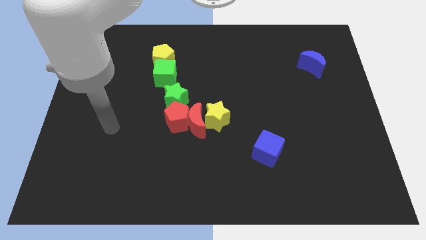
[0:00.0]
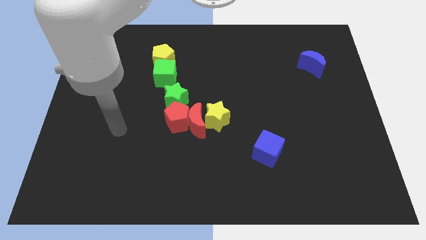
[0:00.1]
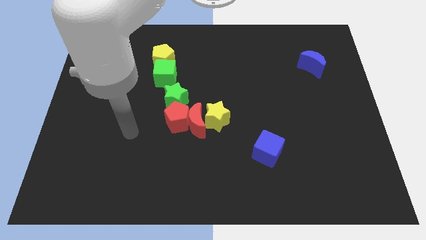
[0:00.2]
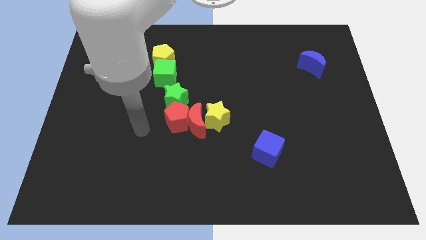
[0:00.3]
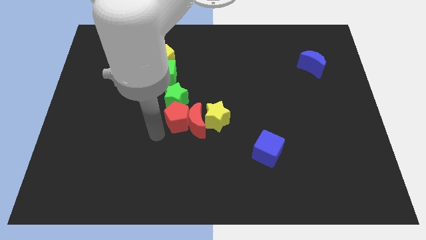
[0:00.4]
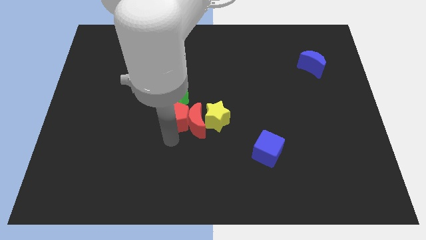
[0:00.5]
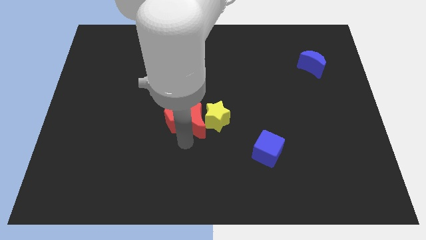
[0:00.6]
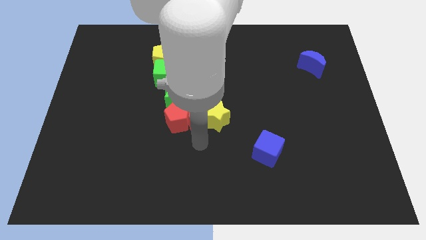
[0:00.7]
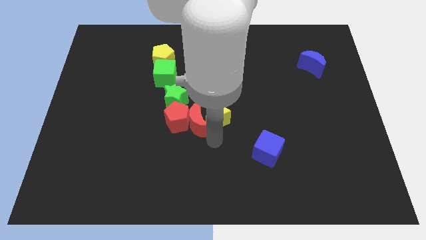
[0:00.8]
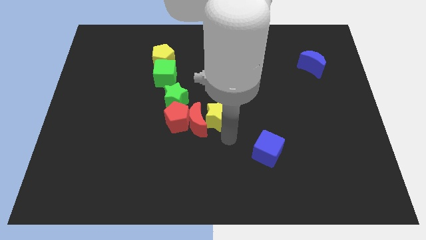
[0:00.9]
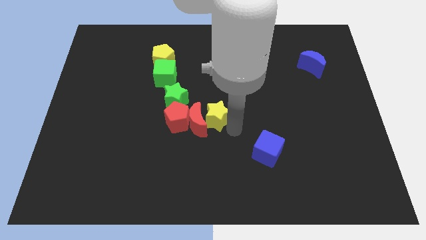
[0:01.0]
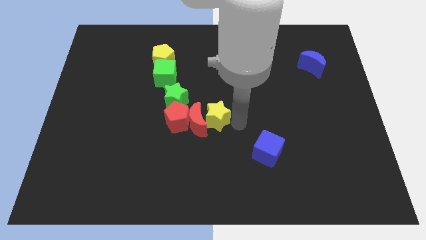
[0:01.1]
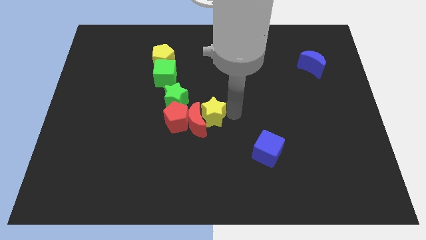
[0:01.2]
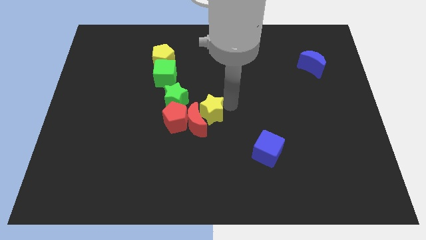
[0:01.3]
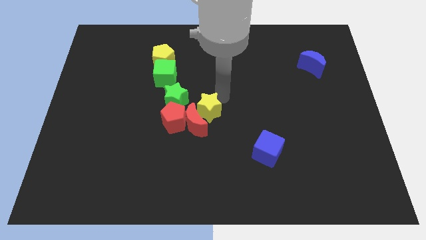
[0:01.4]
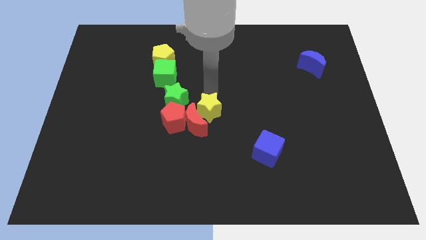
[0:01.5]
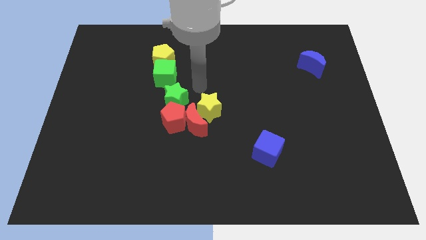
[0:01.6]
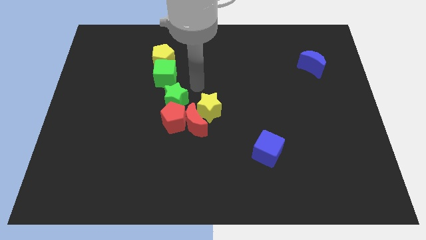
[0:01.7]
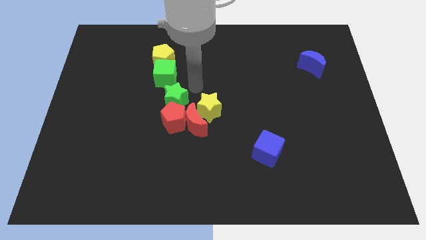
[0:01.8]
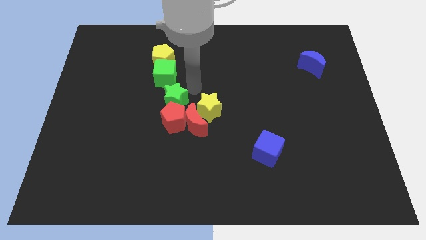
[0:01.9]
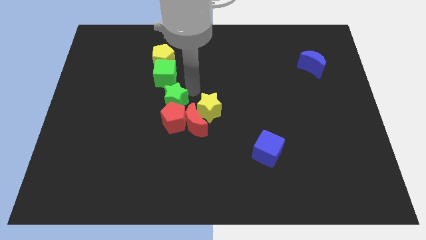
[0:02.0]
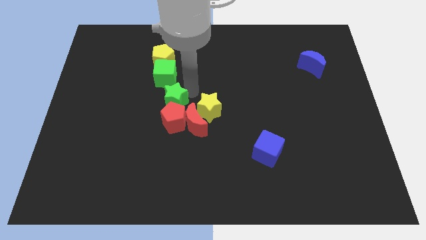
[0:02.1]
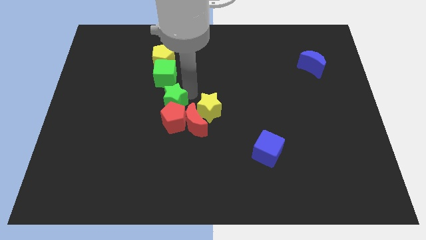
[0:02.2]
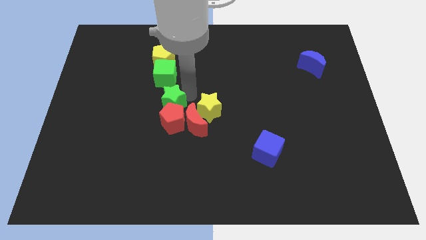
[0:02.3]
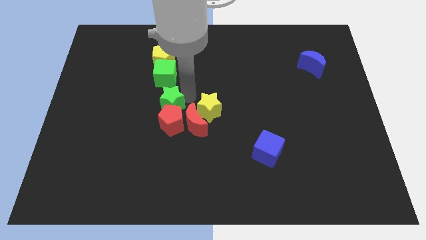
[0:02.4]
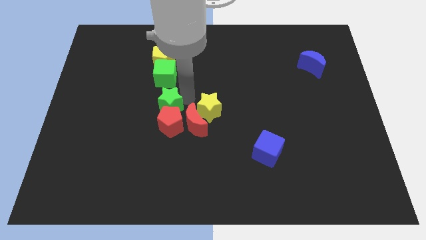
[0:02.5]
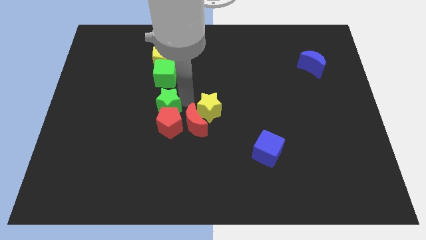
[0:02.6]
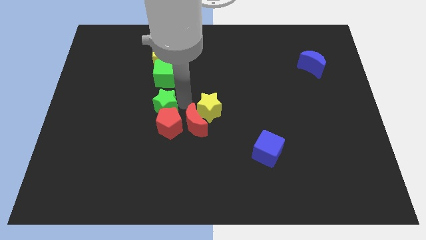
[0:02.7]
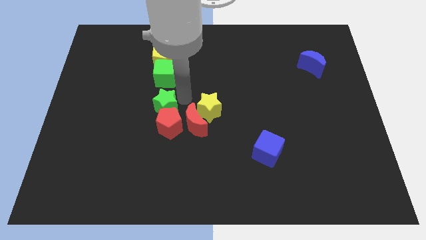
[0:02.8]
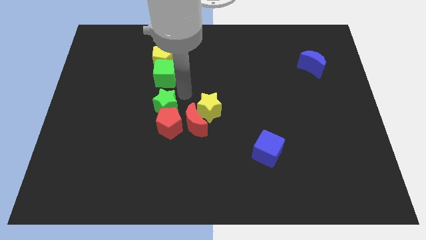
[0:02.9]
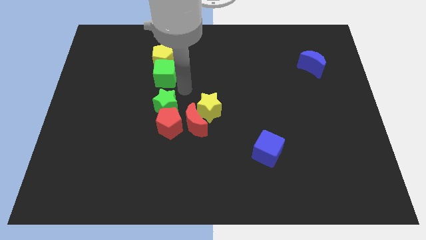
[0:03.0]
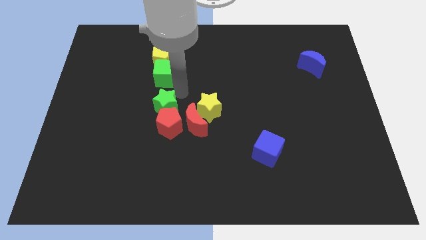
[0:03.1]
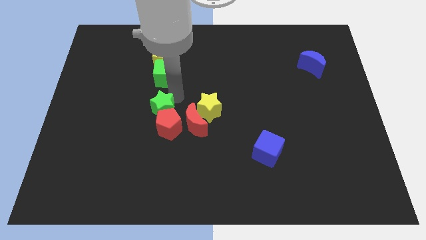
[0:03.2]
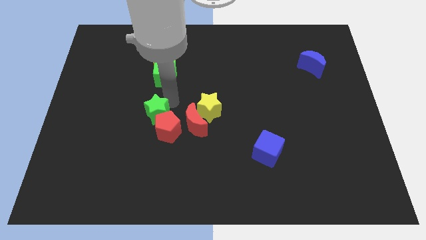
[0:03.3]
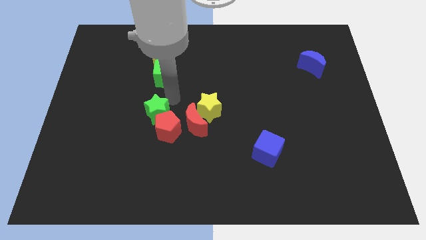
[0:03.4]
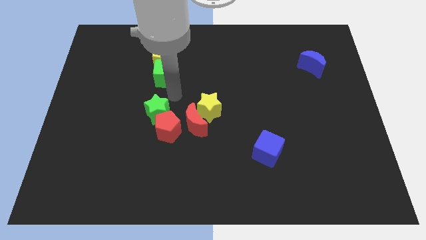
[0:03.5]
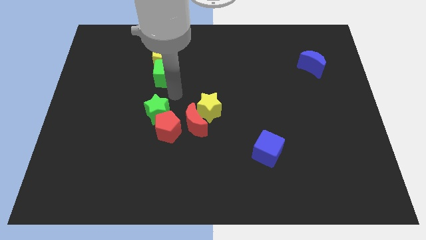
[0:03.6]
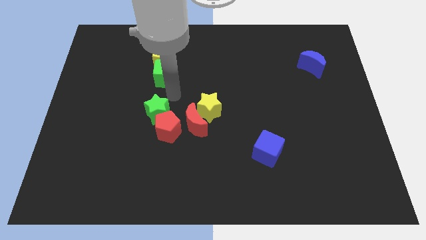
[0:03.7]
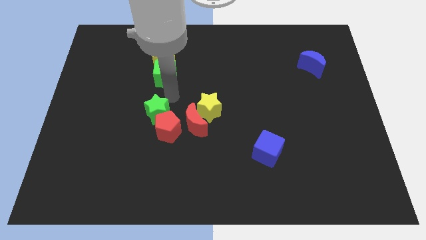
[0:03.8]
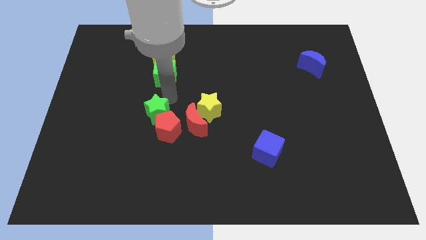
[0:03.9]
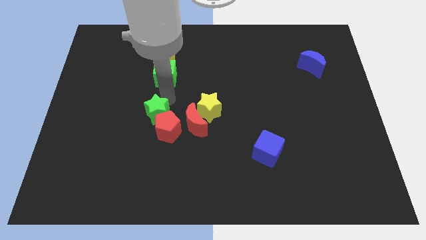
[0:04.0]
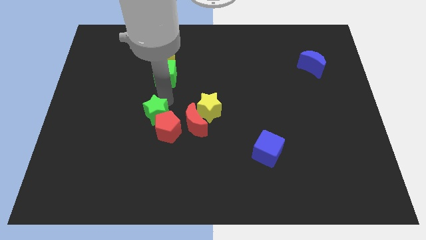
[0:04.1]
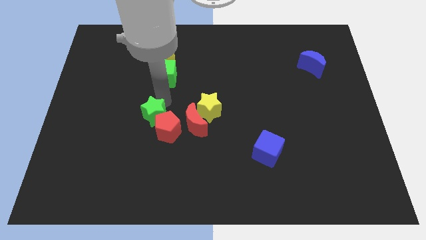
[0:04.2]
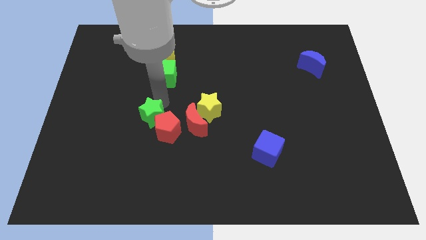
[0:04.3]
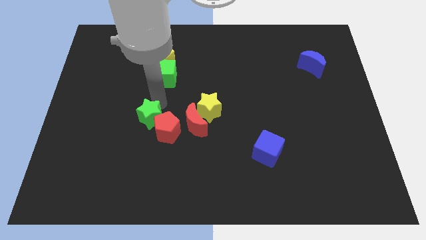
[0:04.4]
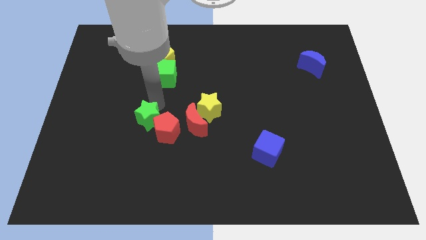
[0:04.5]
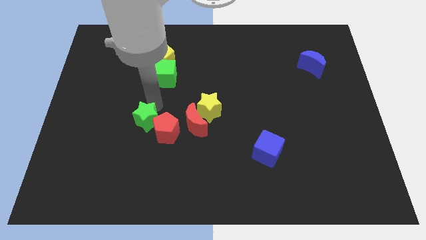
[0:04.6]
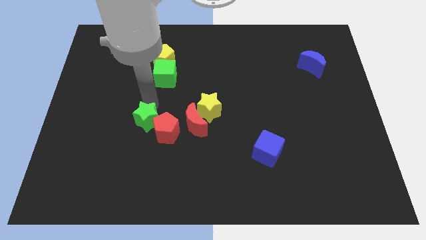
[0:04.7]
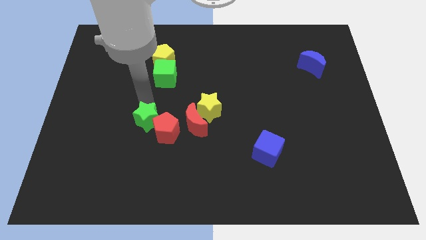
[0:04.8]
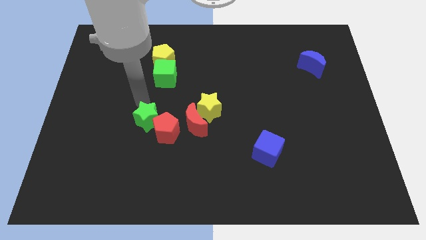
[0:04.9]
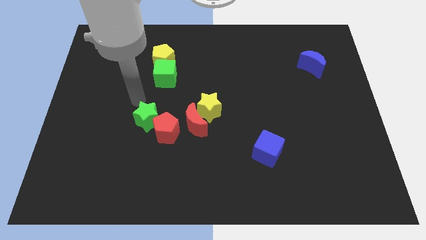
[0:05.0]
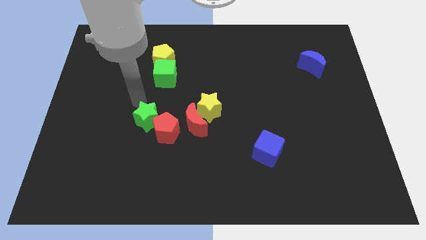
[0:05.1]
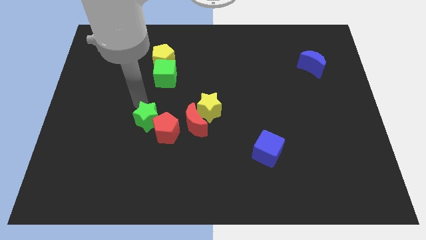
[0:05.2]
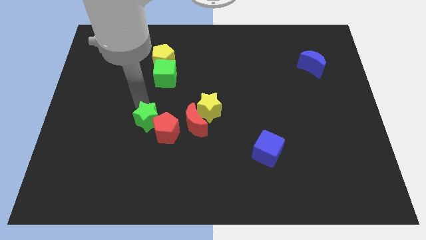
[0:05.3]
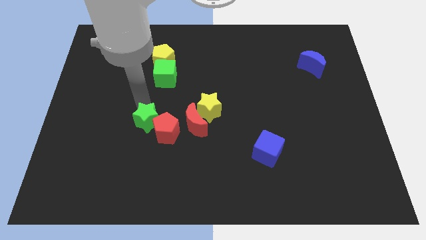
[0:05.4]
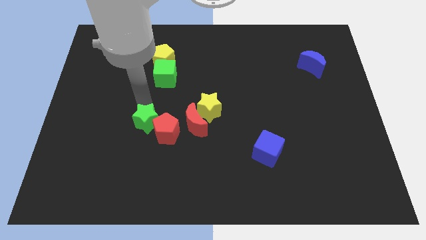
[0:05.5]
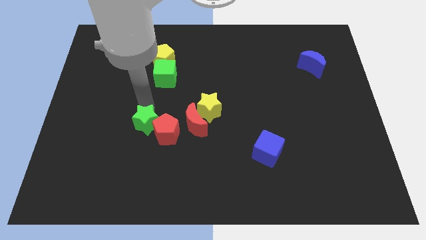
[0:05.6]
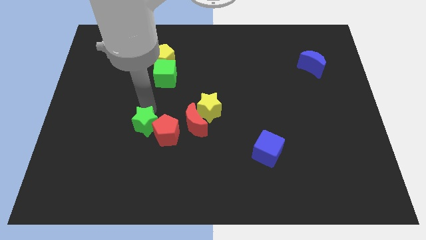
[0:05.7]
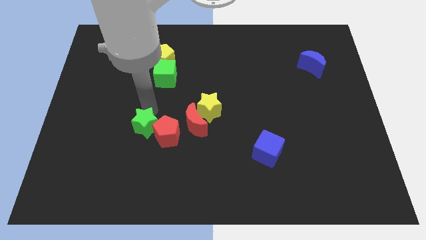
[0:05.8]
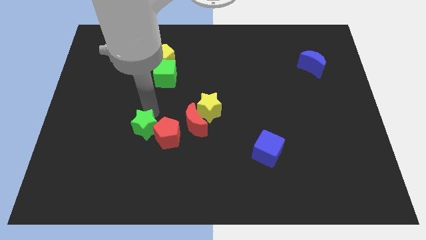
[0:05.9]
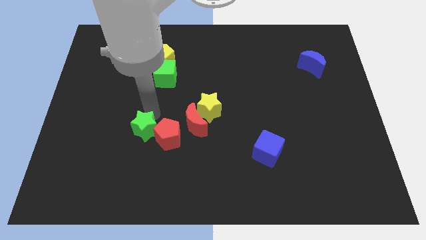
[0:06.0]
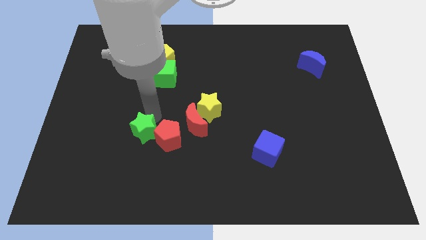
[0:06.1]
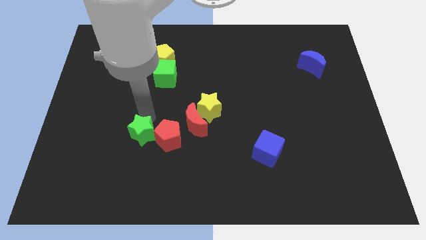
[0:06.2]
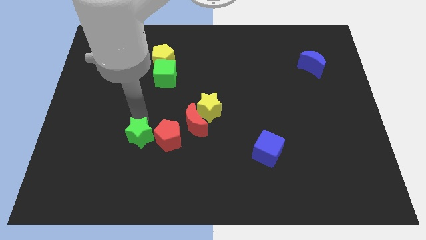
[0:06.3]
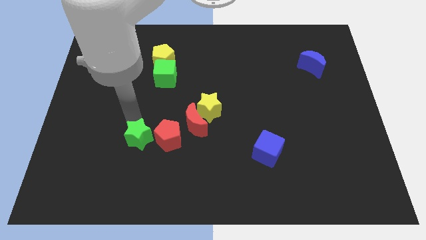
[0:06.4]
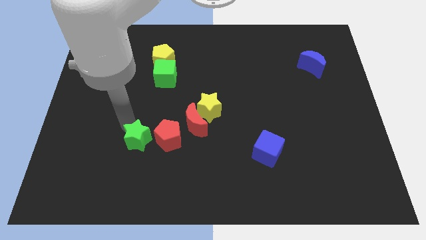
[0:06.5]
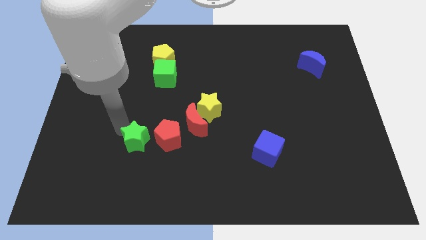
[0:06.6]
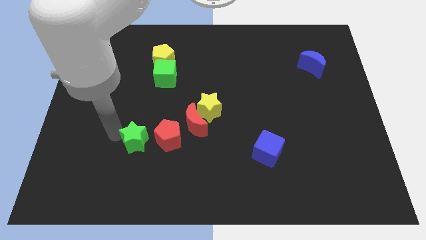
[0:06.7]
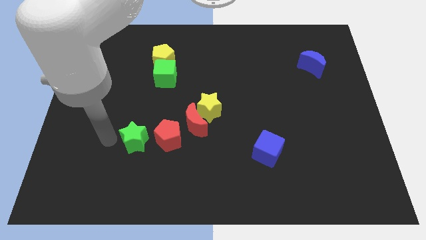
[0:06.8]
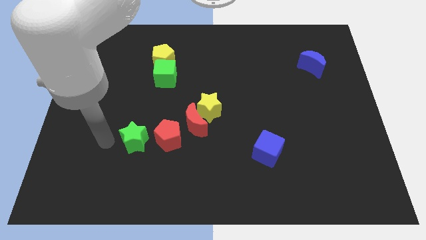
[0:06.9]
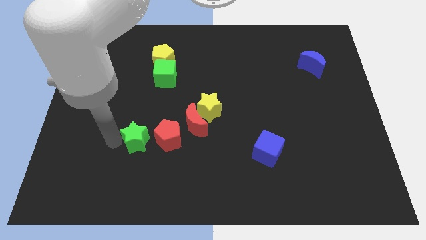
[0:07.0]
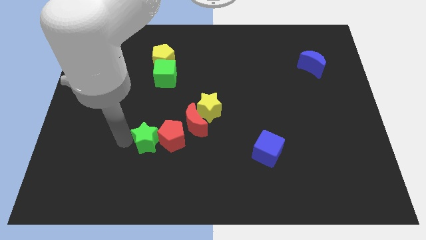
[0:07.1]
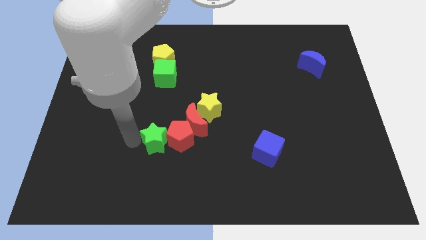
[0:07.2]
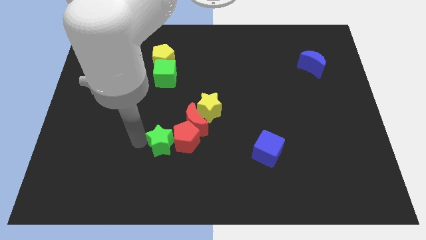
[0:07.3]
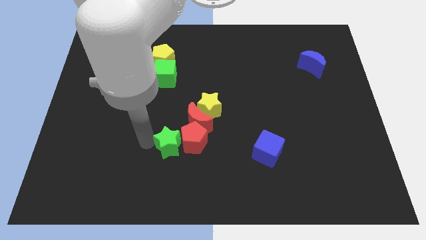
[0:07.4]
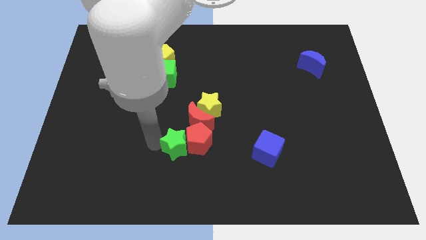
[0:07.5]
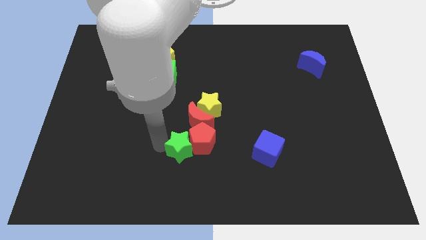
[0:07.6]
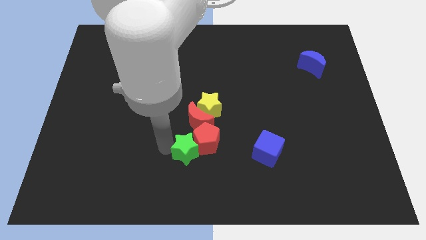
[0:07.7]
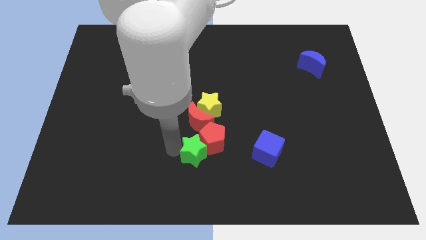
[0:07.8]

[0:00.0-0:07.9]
slide the green star just left of the blue cube

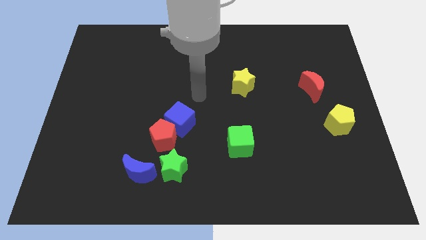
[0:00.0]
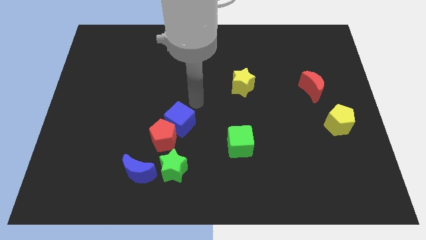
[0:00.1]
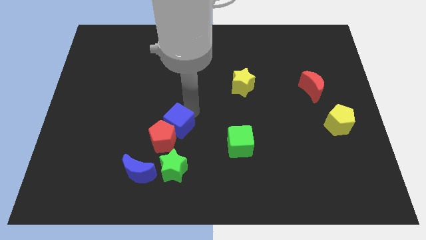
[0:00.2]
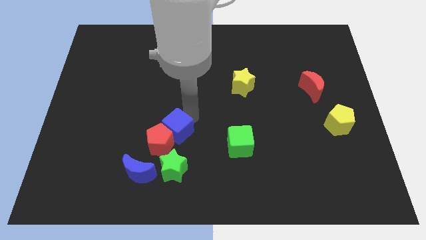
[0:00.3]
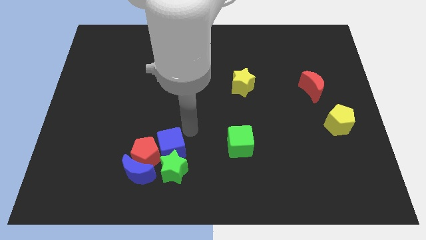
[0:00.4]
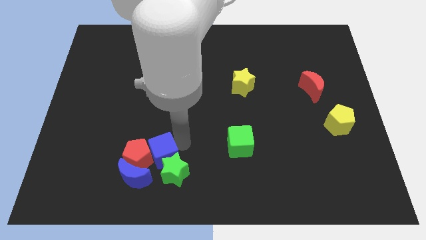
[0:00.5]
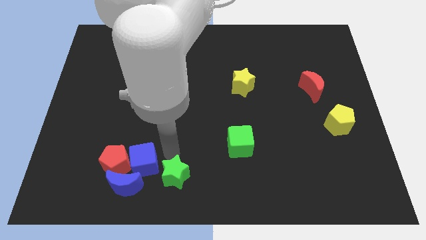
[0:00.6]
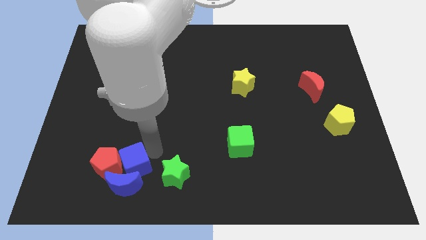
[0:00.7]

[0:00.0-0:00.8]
put the red pentagon to the left side of the blue moon
